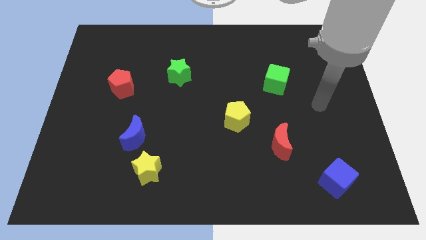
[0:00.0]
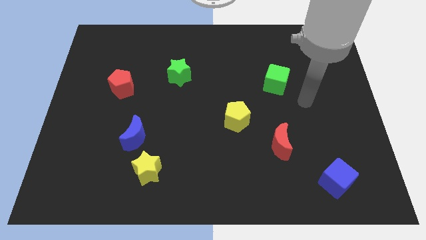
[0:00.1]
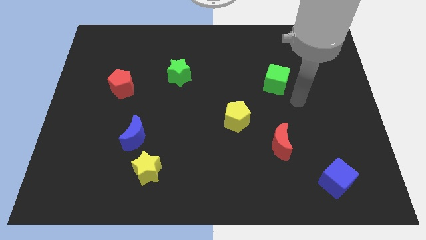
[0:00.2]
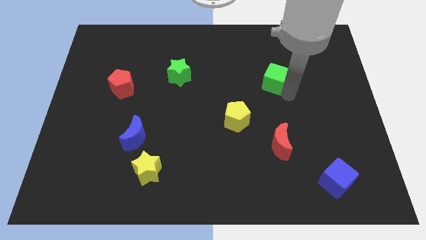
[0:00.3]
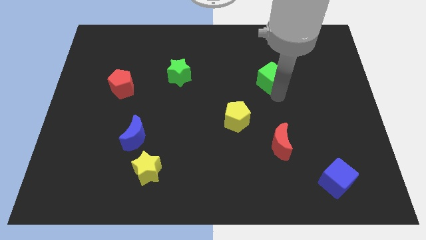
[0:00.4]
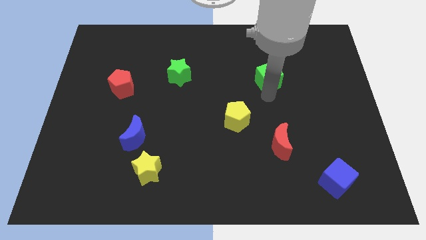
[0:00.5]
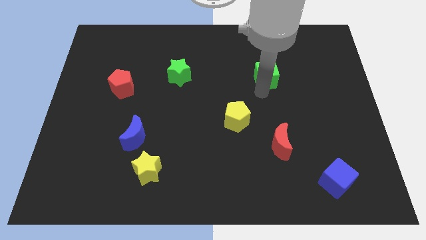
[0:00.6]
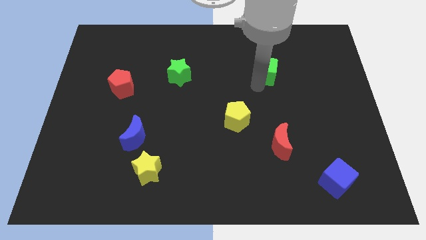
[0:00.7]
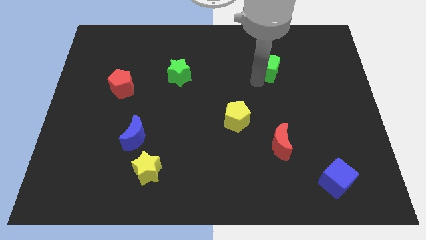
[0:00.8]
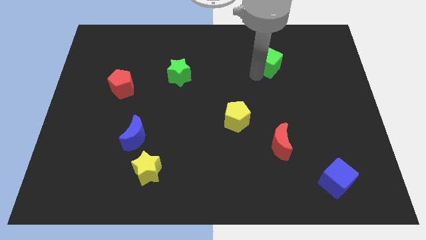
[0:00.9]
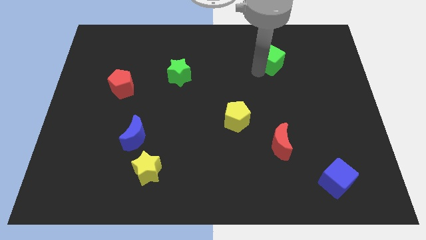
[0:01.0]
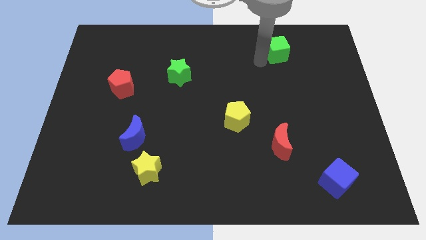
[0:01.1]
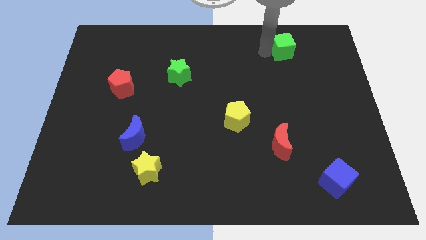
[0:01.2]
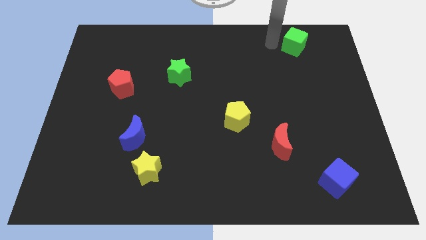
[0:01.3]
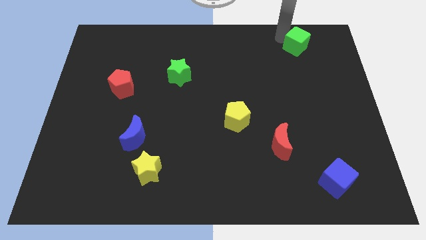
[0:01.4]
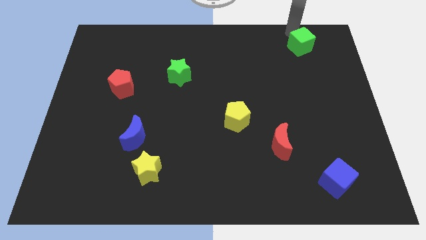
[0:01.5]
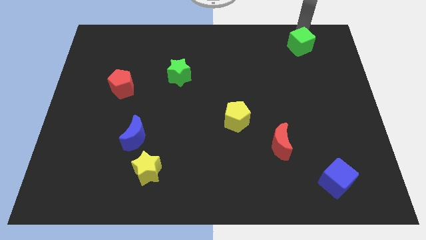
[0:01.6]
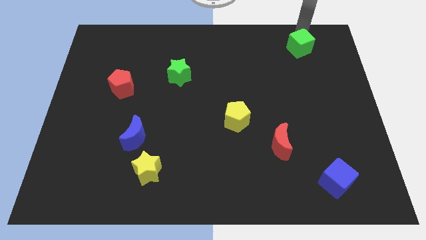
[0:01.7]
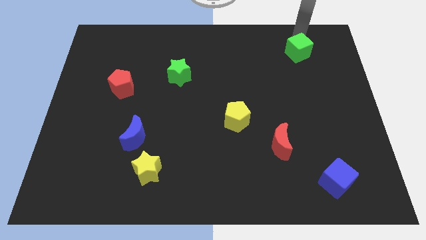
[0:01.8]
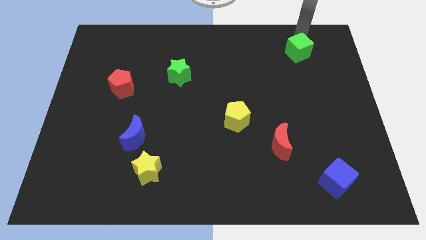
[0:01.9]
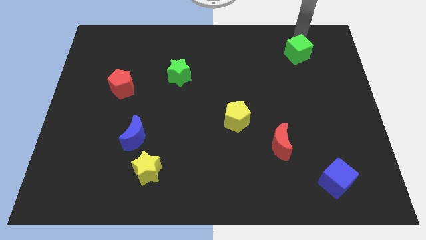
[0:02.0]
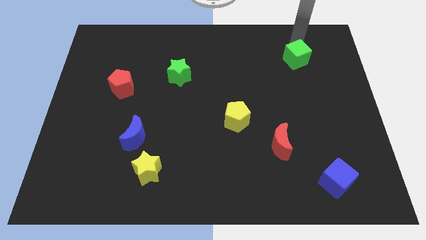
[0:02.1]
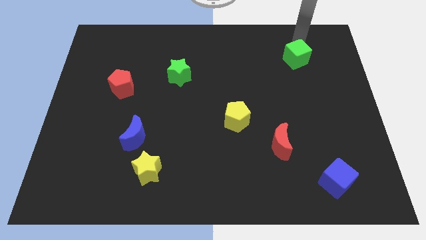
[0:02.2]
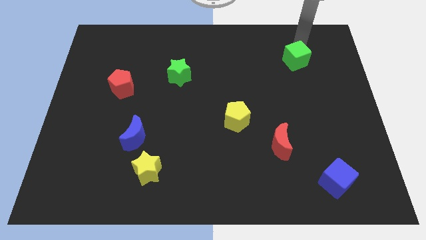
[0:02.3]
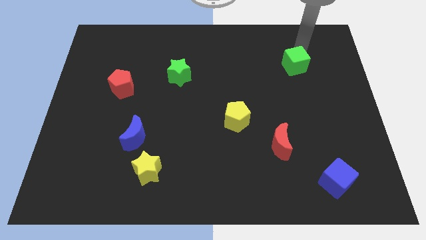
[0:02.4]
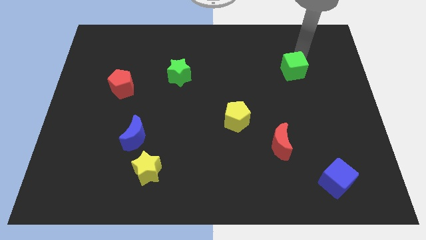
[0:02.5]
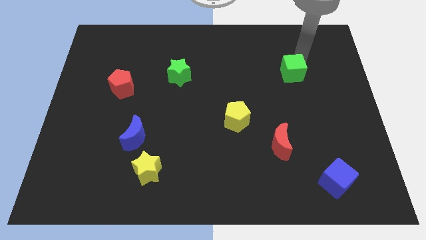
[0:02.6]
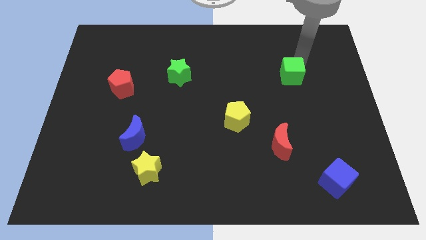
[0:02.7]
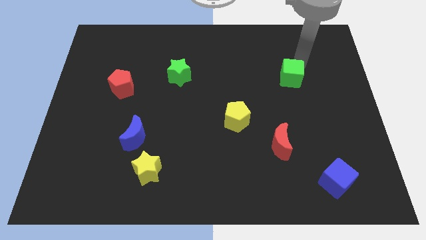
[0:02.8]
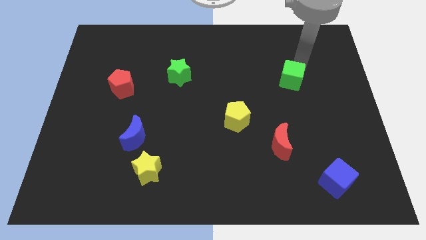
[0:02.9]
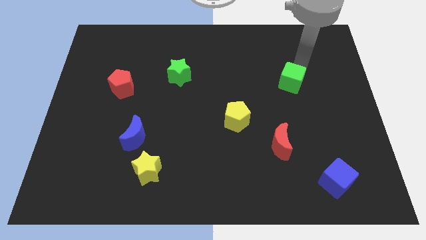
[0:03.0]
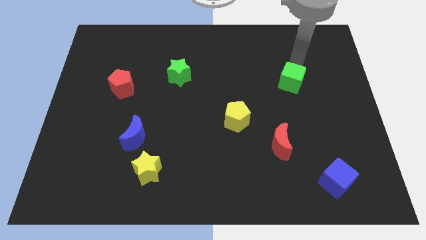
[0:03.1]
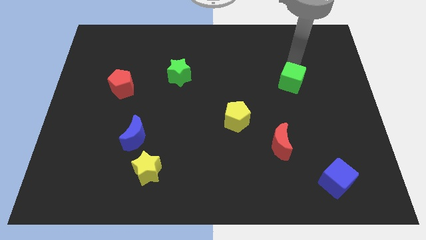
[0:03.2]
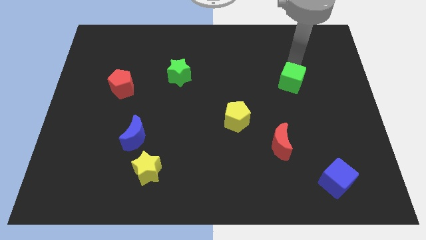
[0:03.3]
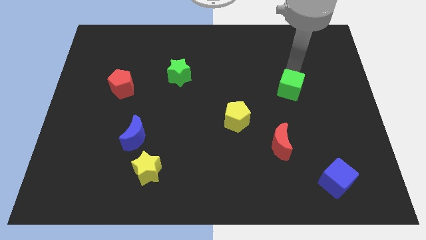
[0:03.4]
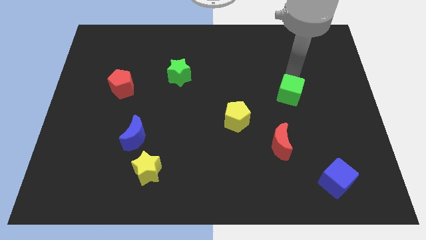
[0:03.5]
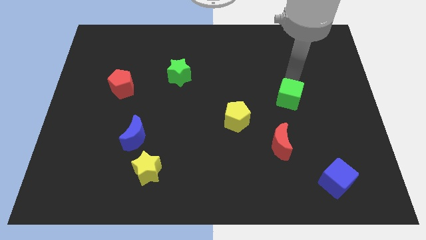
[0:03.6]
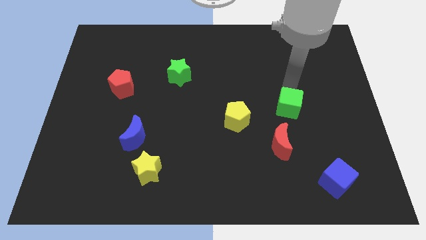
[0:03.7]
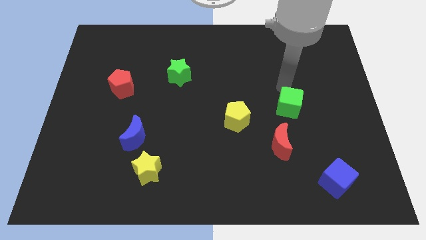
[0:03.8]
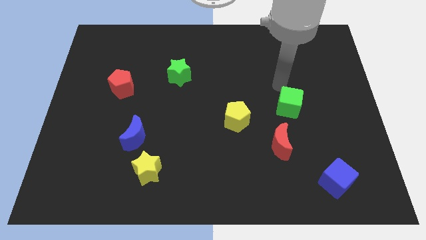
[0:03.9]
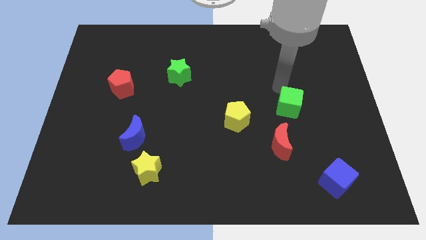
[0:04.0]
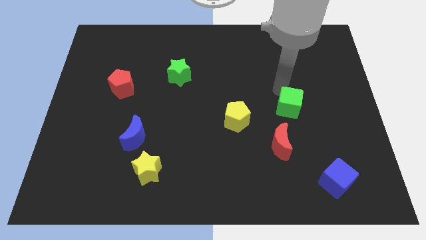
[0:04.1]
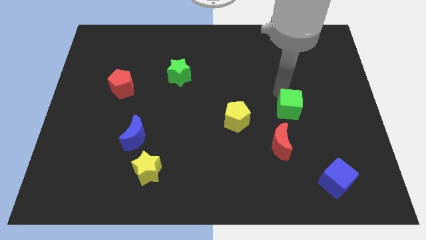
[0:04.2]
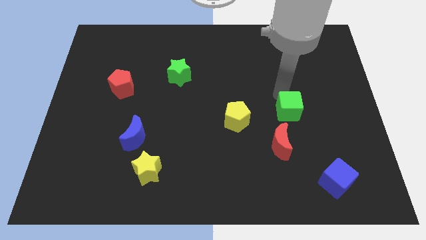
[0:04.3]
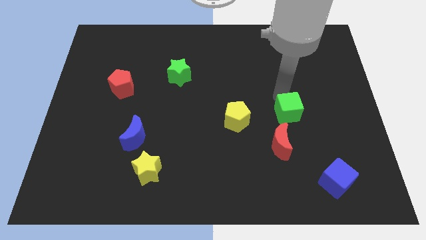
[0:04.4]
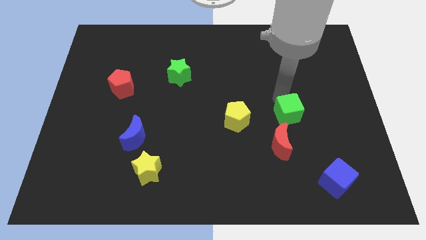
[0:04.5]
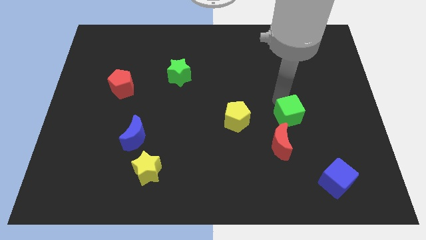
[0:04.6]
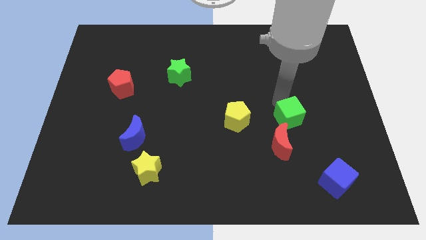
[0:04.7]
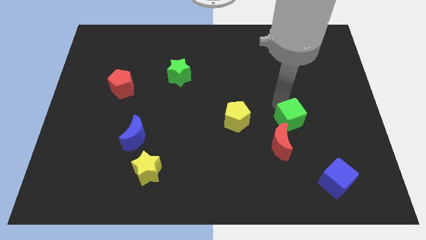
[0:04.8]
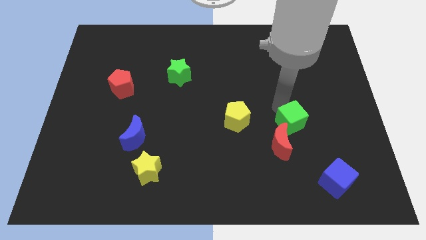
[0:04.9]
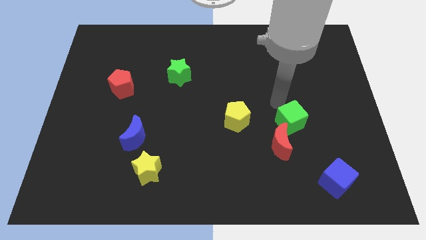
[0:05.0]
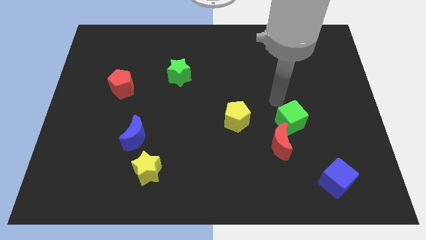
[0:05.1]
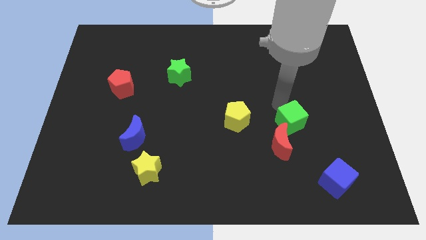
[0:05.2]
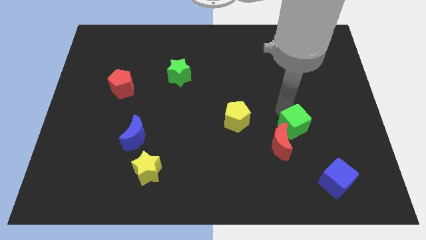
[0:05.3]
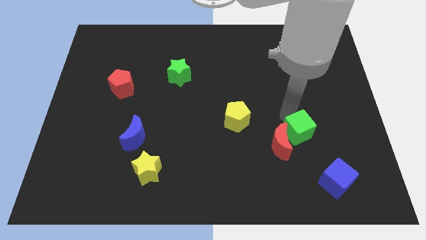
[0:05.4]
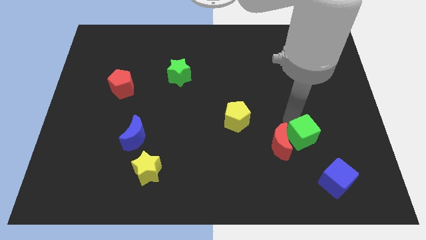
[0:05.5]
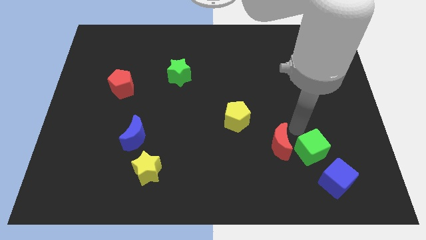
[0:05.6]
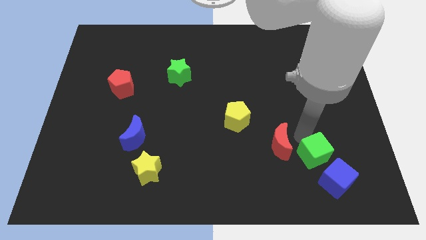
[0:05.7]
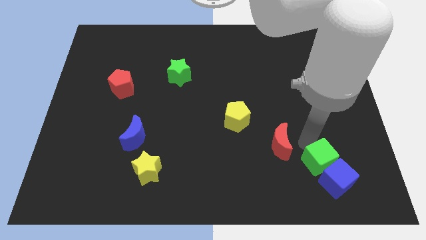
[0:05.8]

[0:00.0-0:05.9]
slide the green cube next to the blue cube

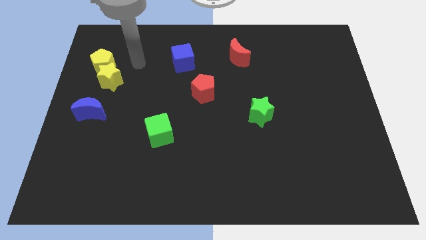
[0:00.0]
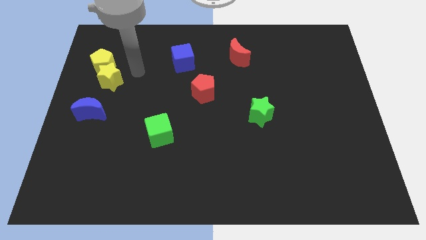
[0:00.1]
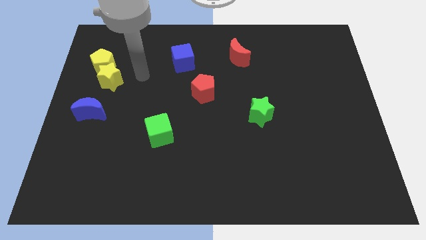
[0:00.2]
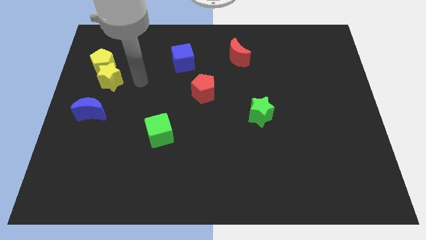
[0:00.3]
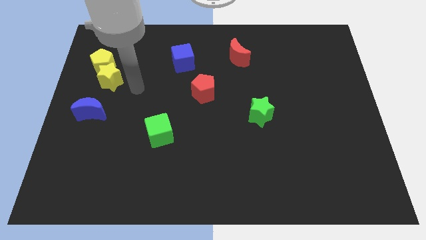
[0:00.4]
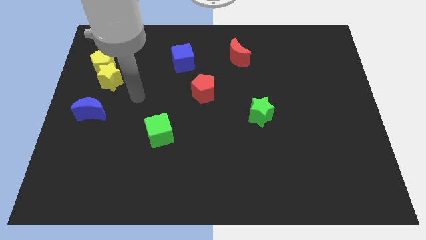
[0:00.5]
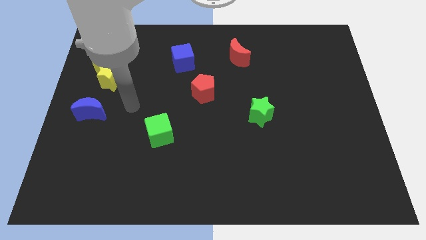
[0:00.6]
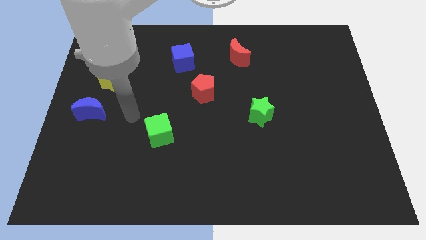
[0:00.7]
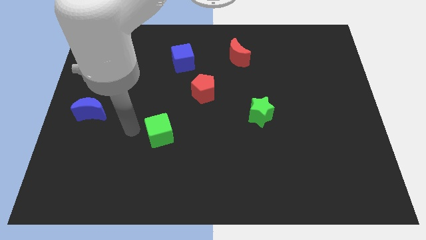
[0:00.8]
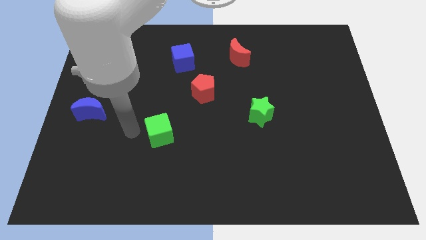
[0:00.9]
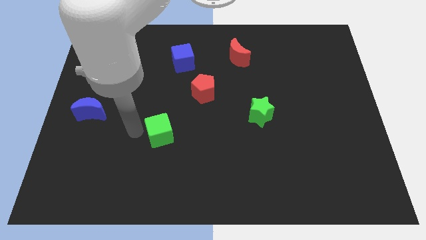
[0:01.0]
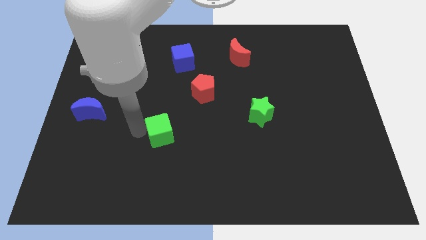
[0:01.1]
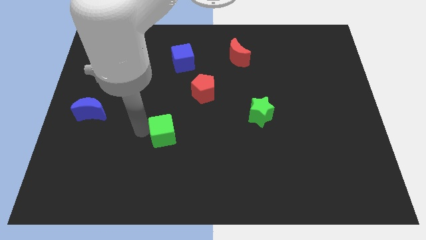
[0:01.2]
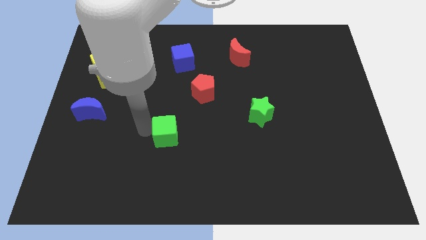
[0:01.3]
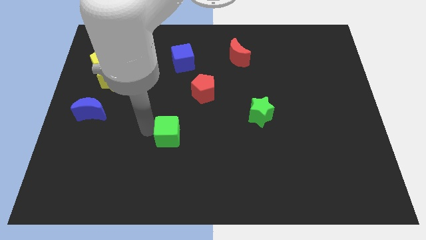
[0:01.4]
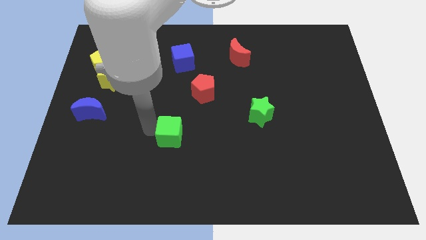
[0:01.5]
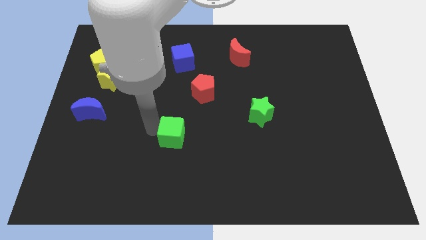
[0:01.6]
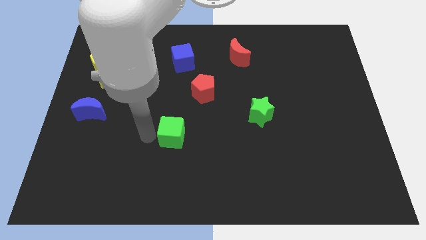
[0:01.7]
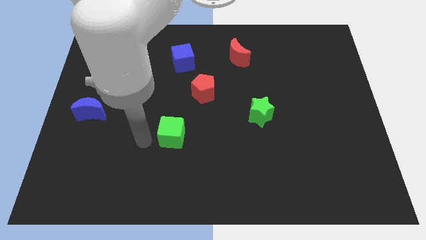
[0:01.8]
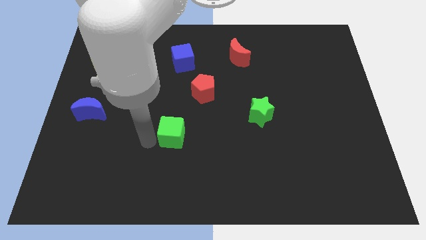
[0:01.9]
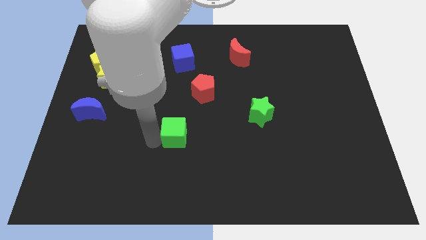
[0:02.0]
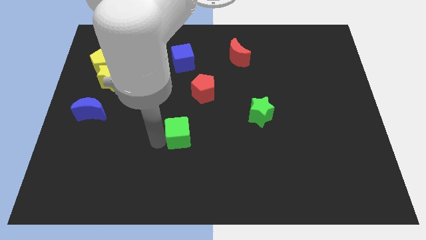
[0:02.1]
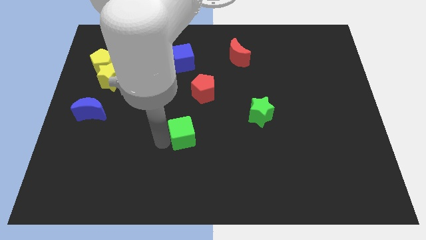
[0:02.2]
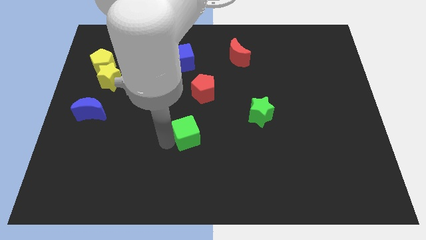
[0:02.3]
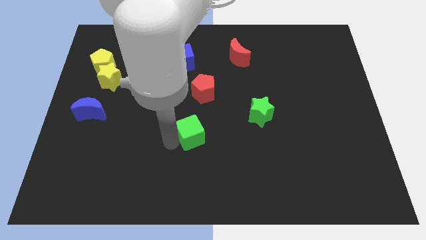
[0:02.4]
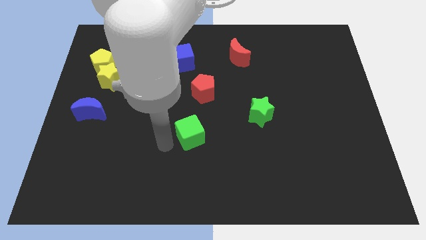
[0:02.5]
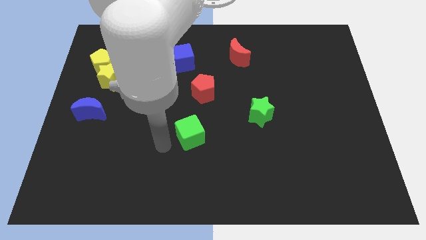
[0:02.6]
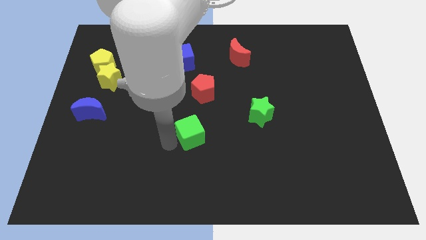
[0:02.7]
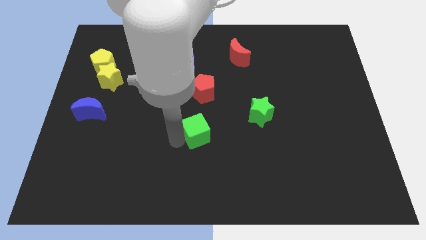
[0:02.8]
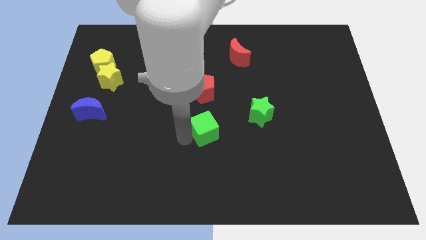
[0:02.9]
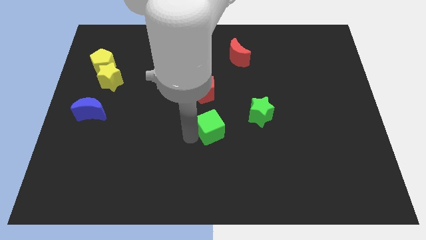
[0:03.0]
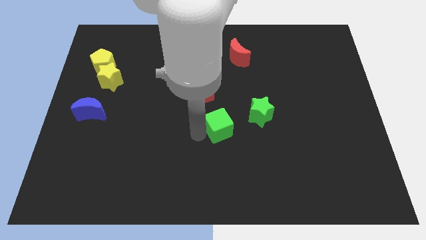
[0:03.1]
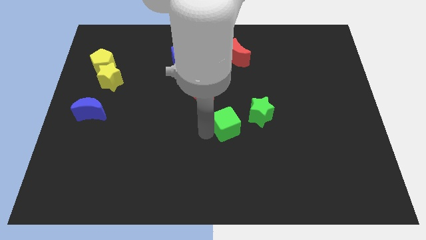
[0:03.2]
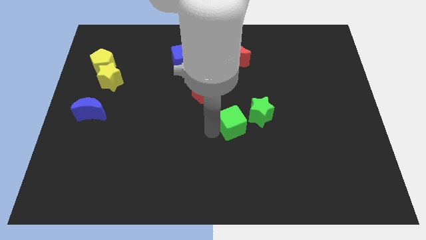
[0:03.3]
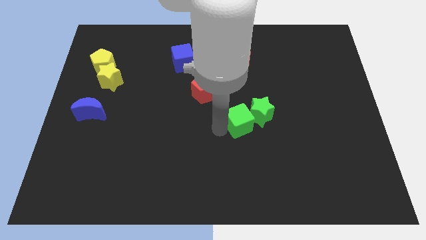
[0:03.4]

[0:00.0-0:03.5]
push the green cube close to the green star
